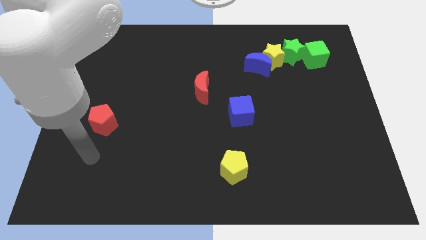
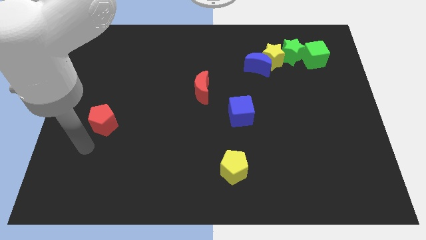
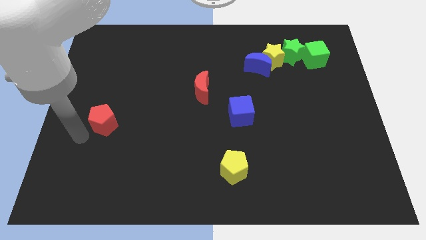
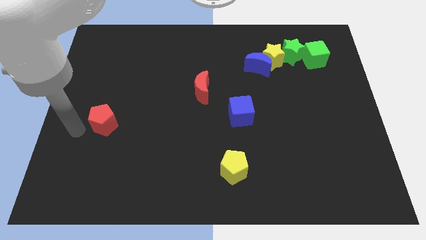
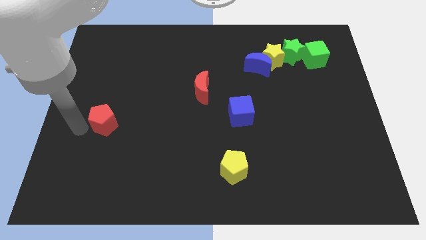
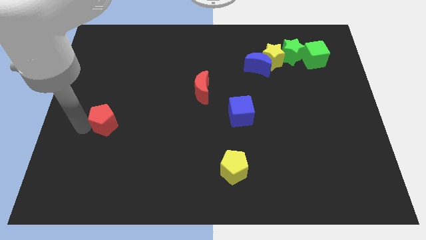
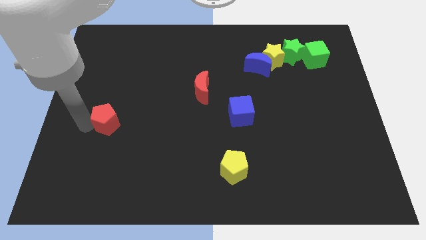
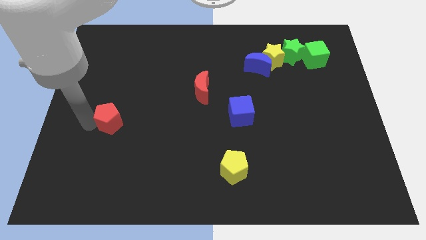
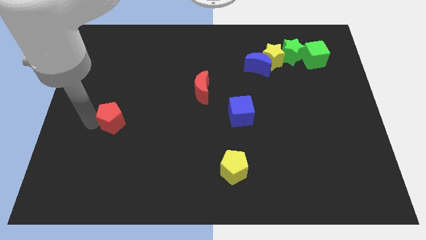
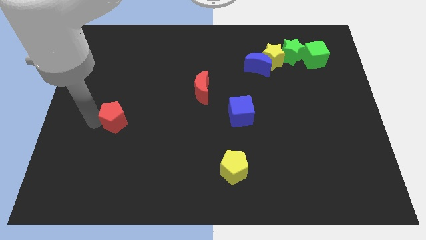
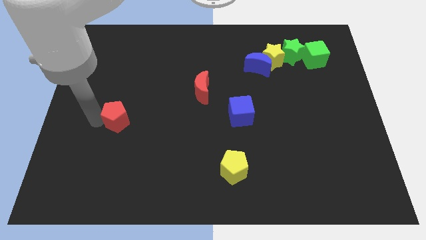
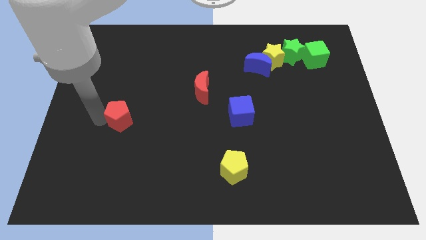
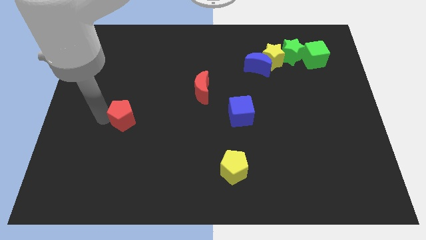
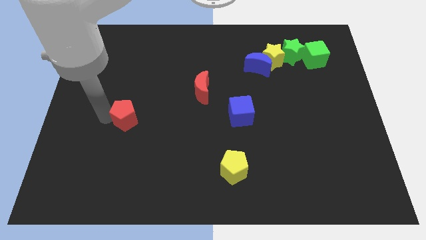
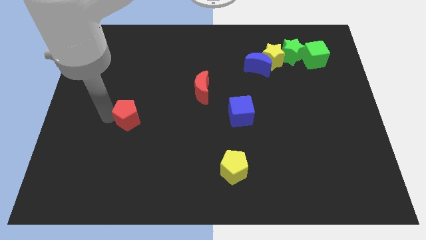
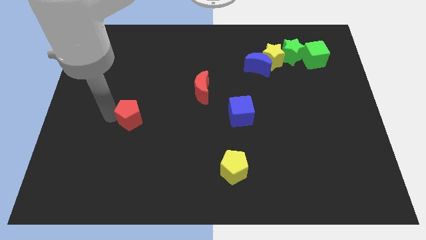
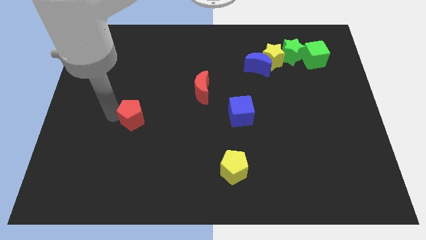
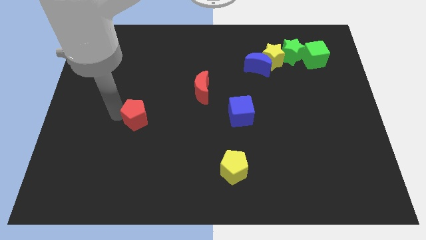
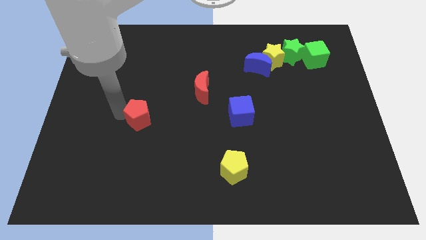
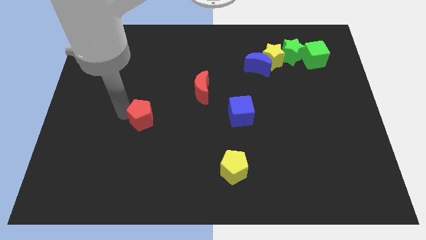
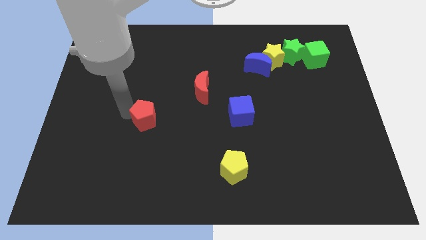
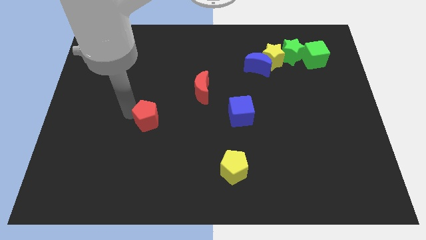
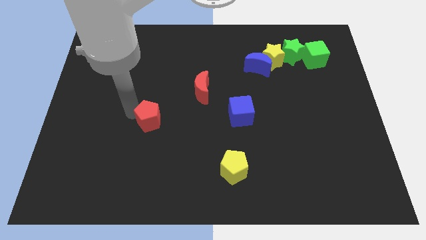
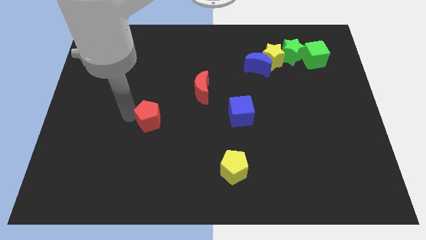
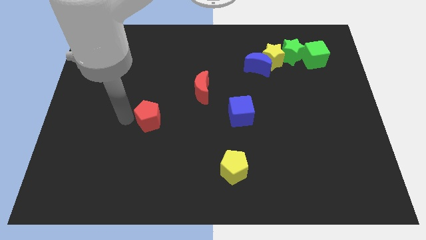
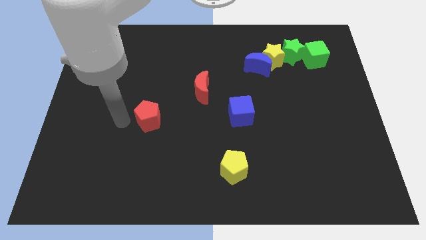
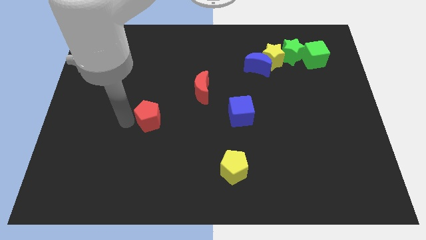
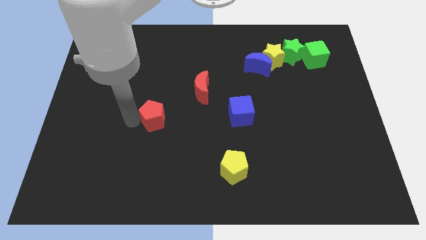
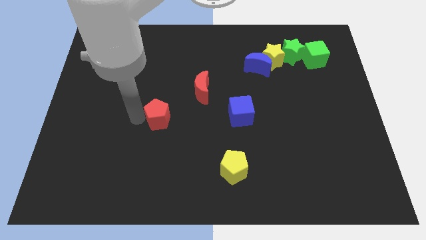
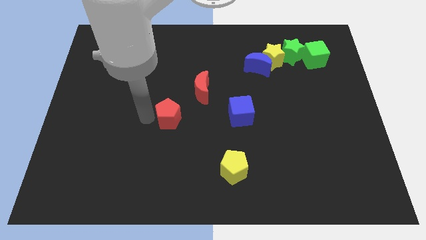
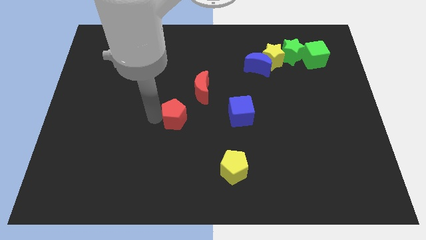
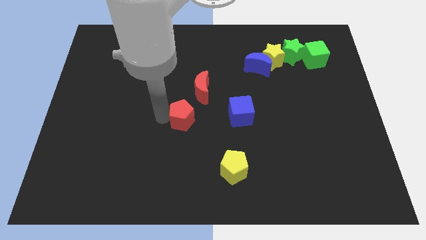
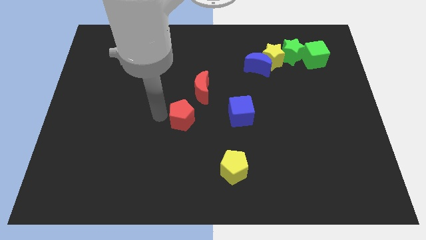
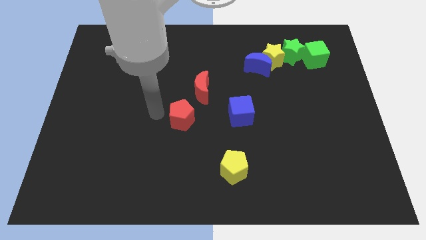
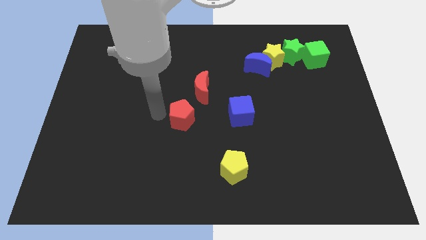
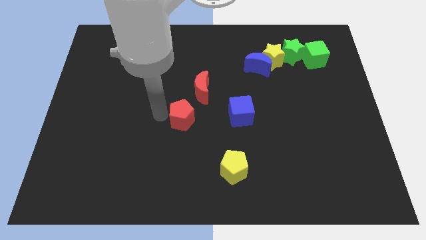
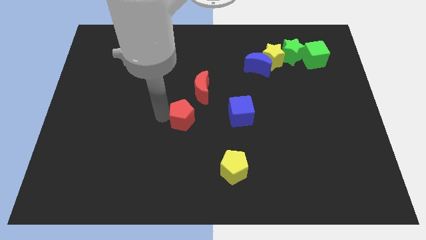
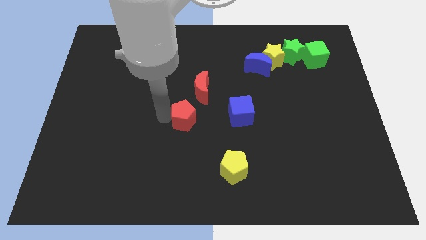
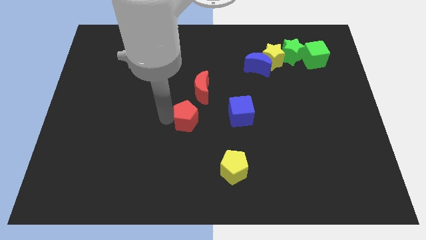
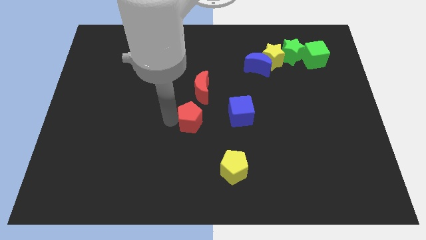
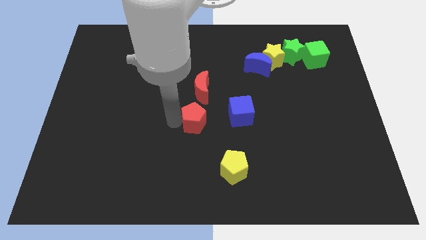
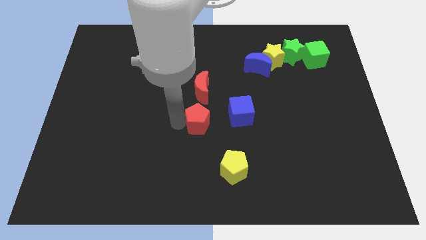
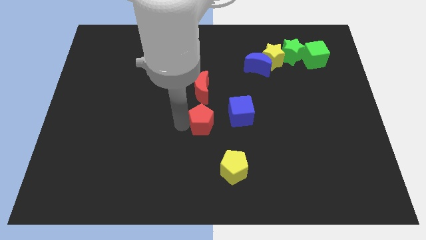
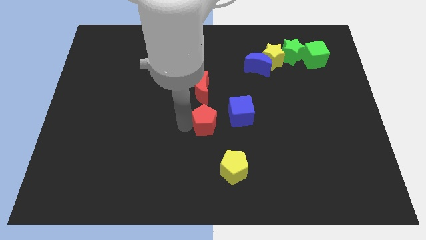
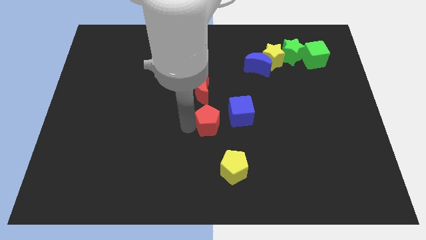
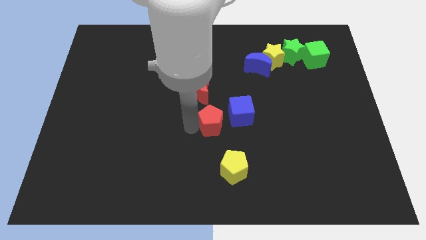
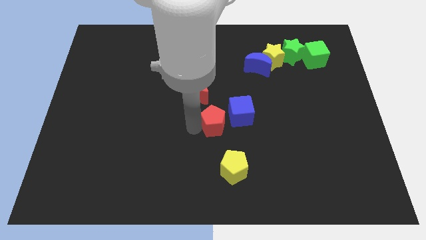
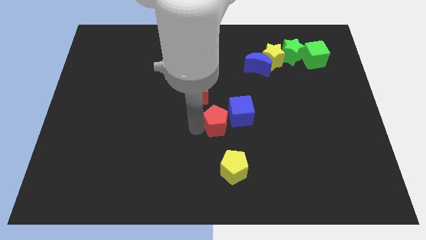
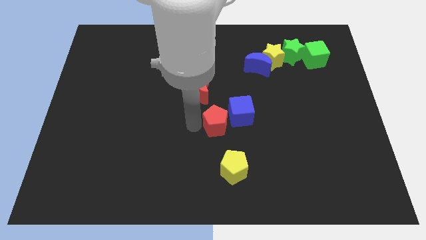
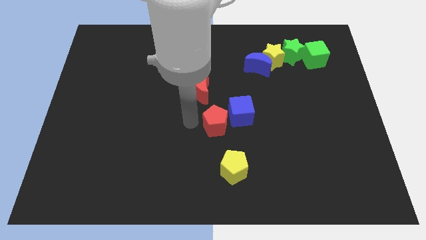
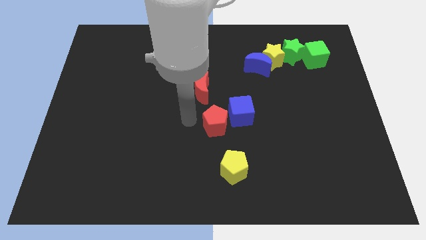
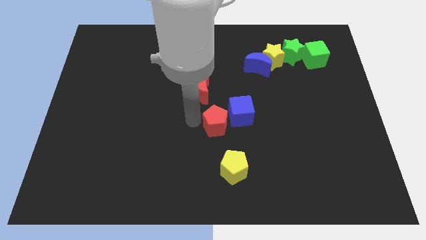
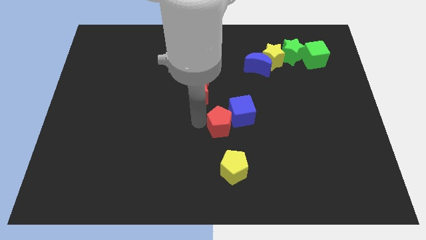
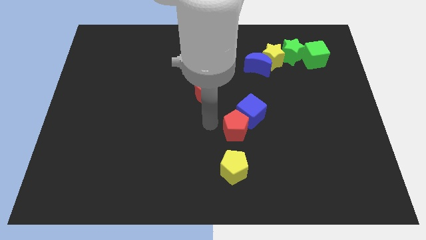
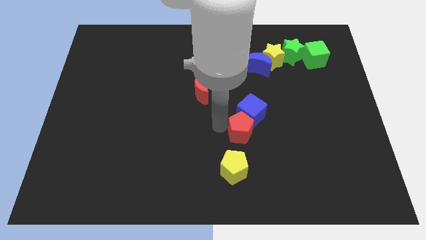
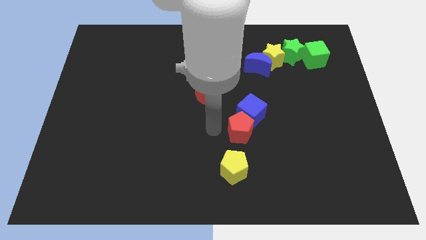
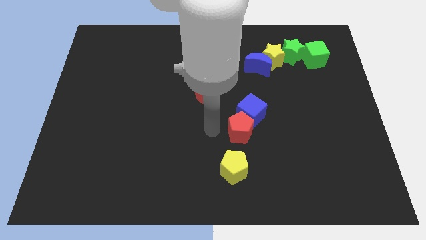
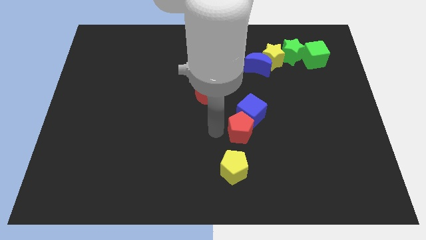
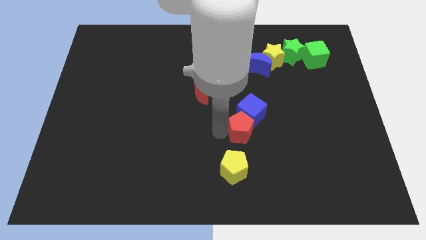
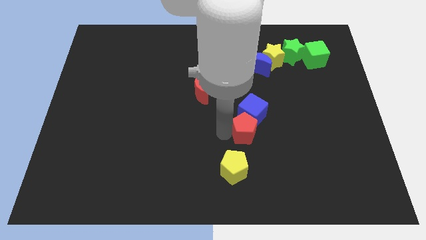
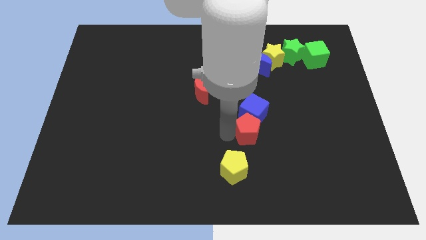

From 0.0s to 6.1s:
move the red pentagon to the bottom right of the blue cube

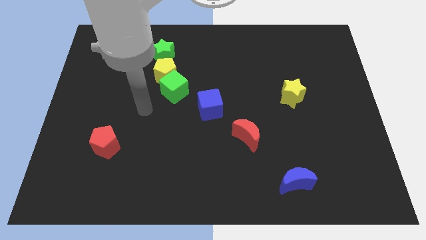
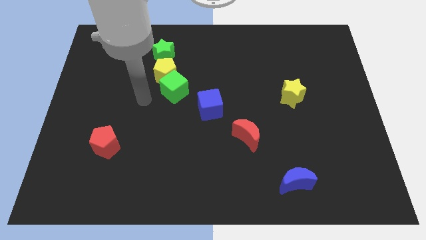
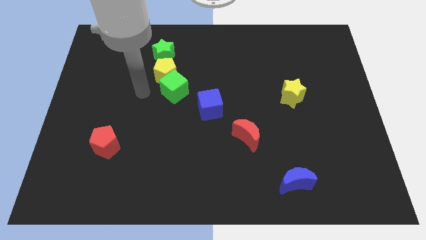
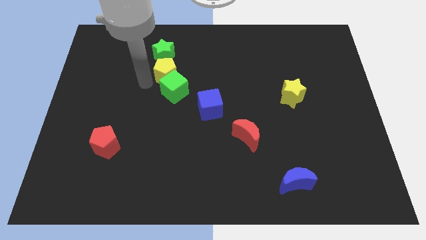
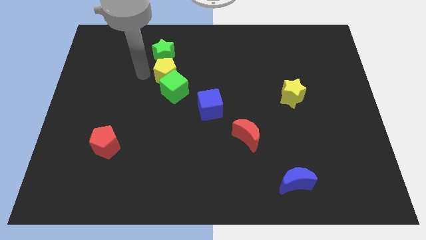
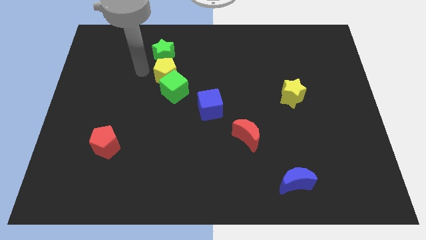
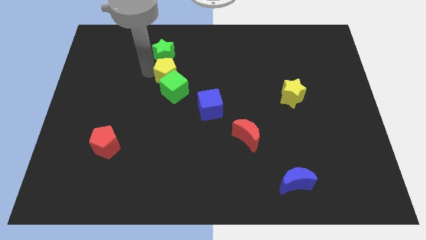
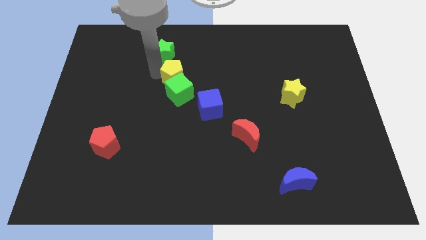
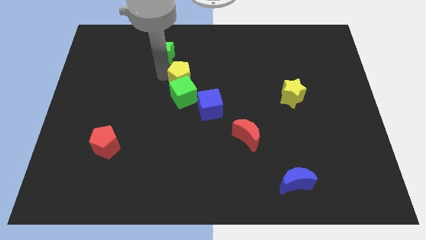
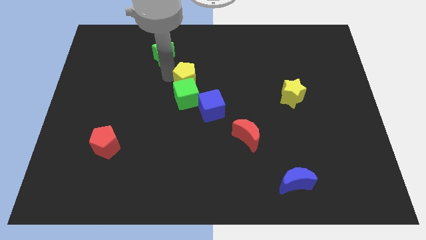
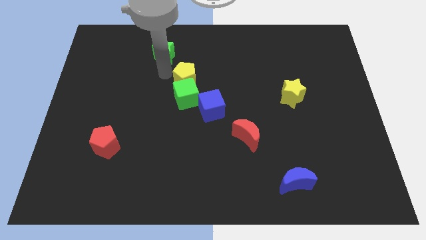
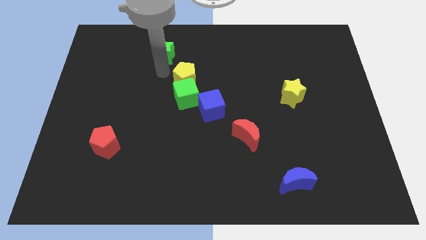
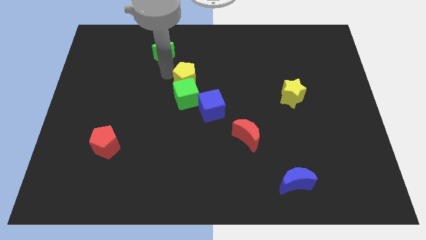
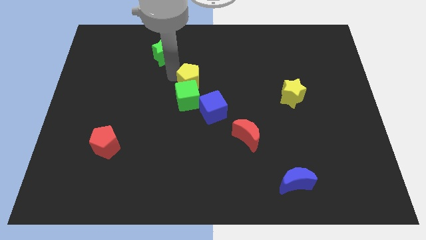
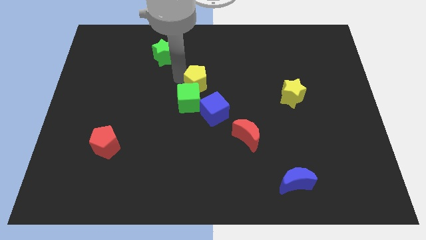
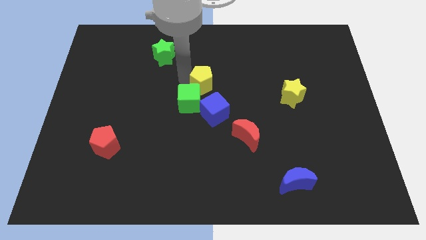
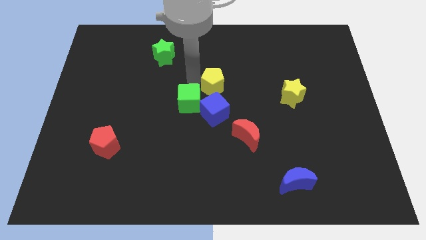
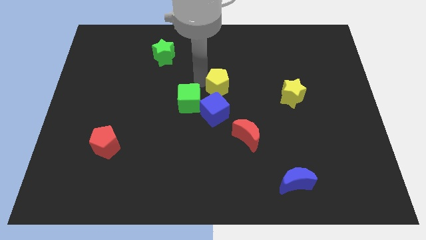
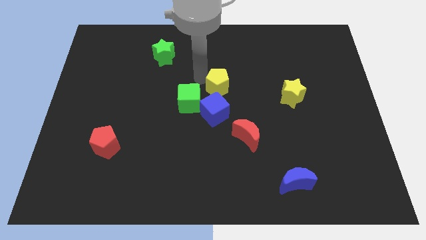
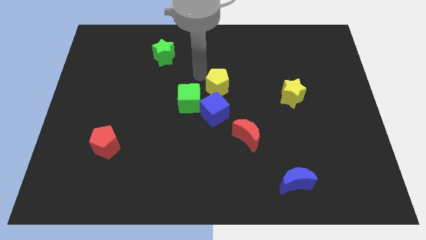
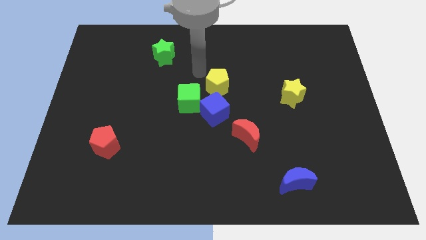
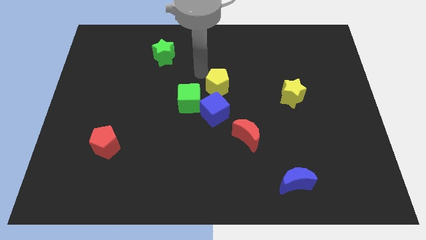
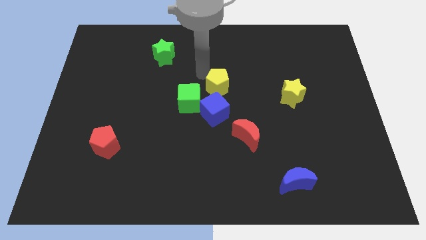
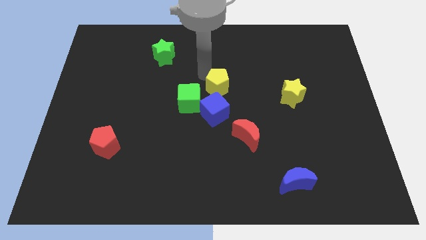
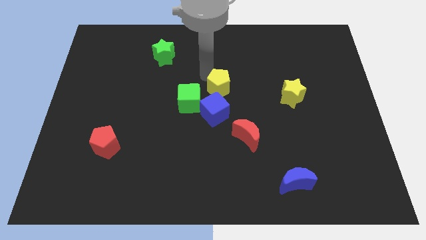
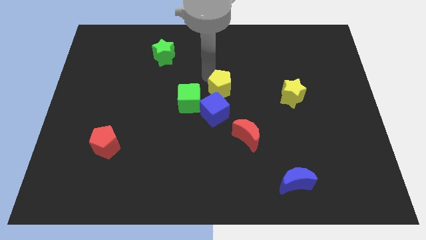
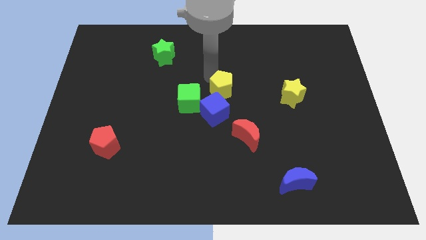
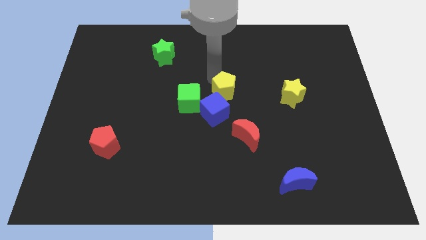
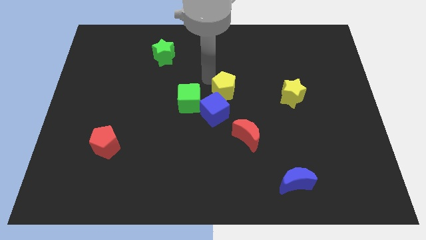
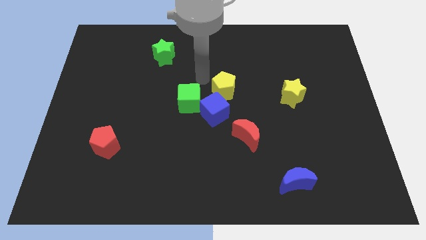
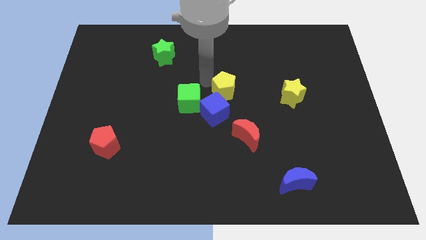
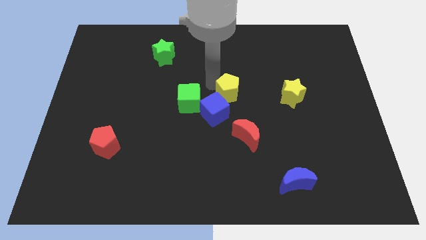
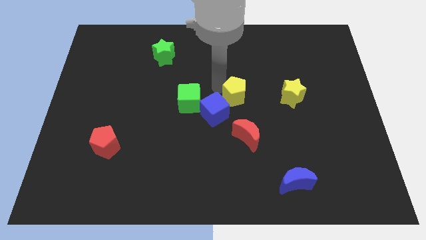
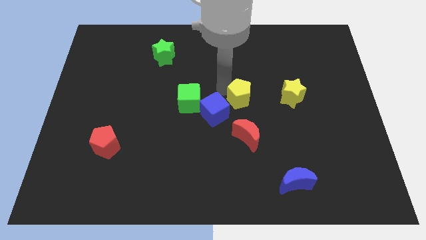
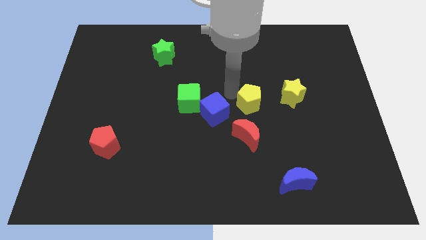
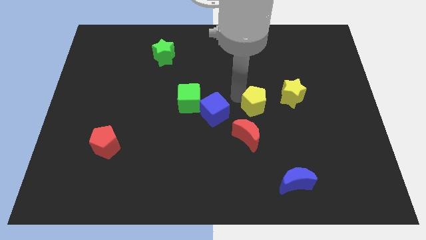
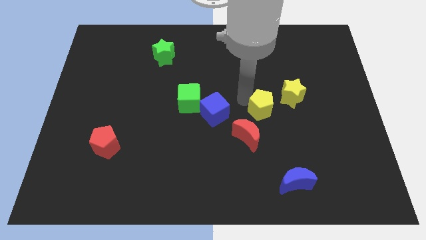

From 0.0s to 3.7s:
push the yellow pentagon to the bottom left of the yellow star
